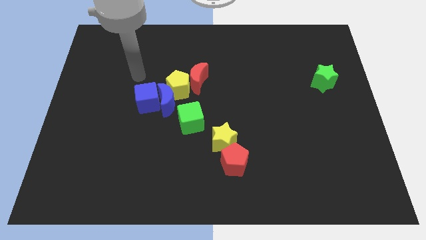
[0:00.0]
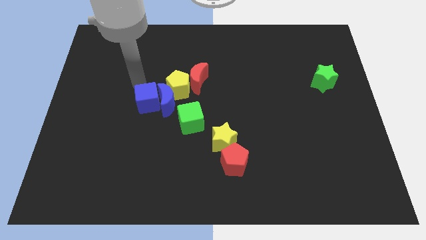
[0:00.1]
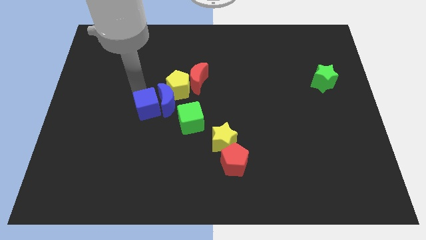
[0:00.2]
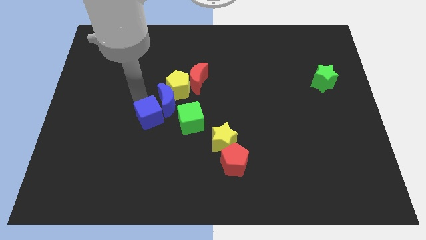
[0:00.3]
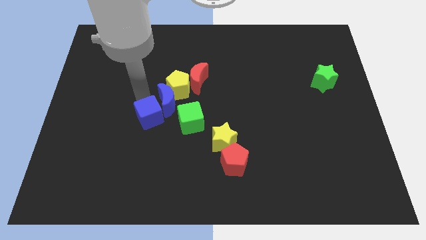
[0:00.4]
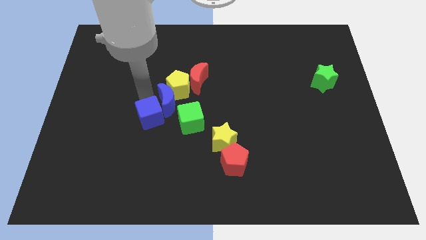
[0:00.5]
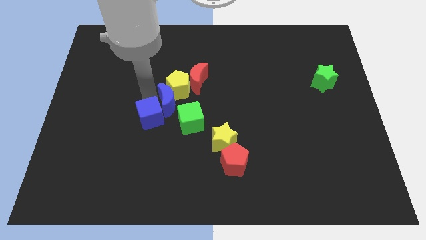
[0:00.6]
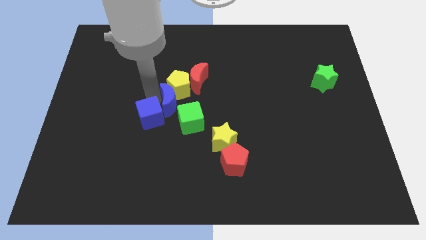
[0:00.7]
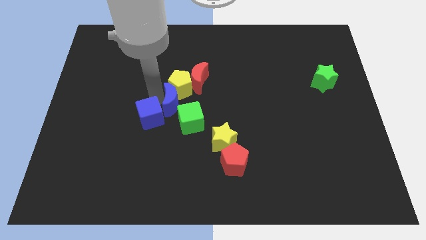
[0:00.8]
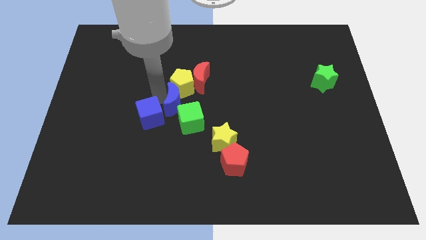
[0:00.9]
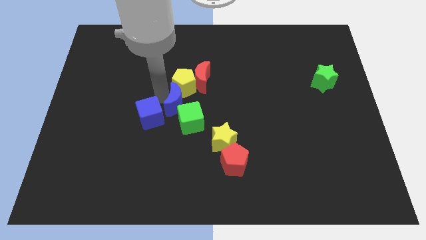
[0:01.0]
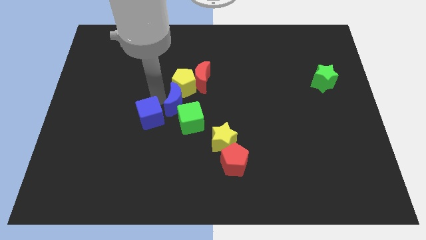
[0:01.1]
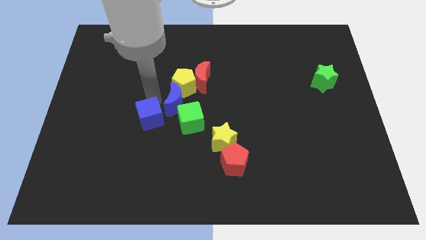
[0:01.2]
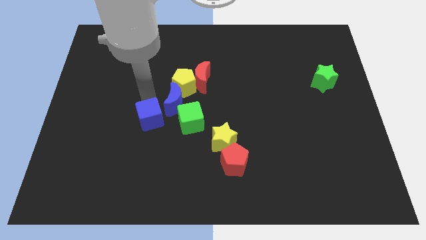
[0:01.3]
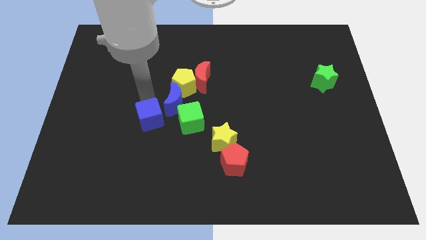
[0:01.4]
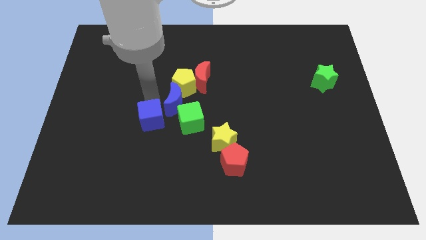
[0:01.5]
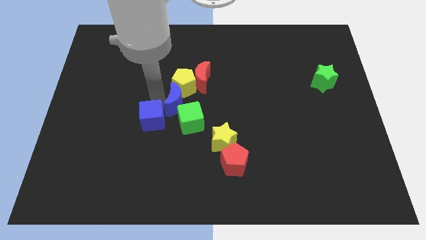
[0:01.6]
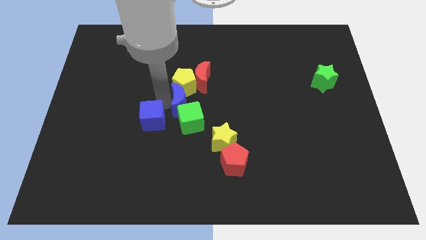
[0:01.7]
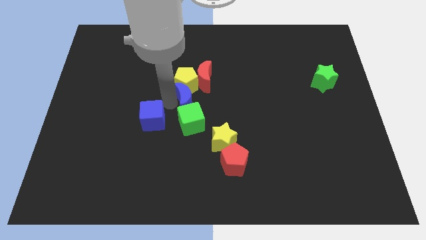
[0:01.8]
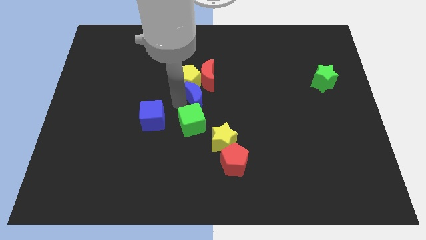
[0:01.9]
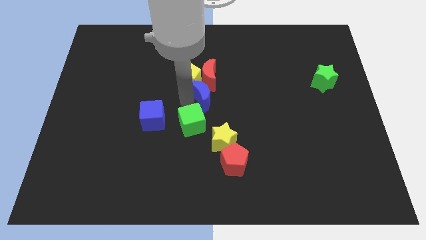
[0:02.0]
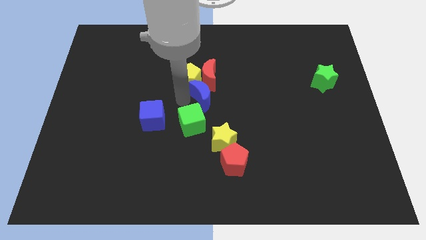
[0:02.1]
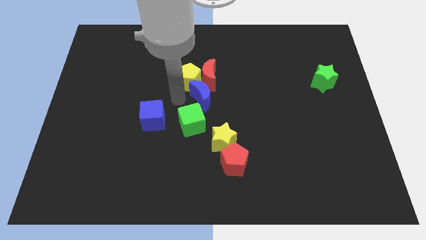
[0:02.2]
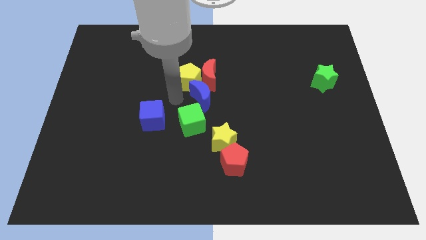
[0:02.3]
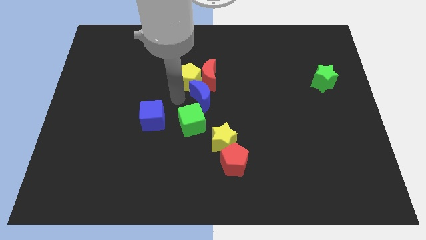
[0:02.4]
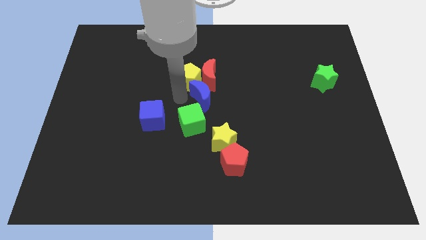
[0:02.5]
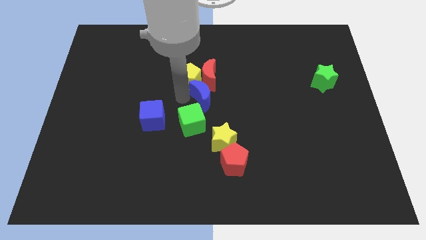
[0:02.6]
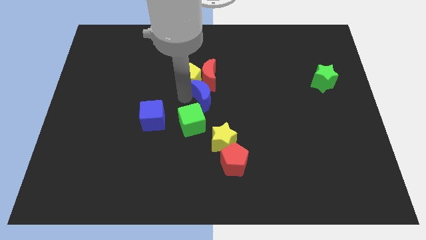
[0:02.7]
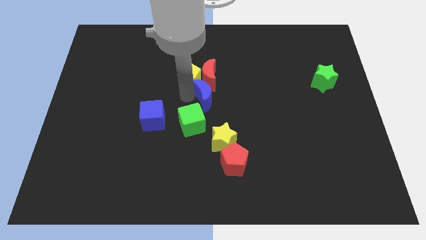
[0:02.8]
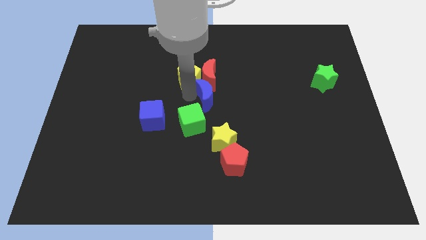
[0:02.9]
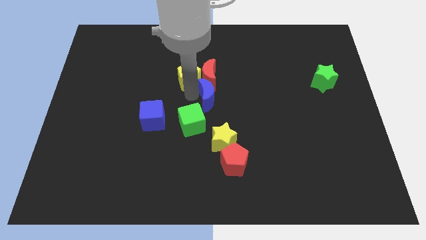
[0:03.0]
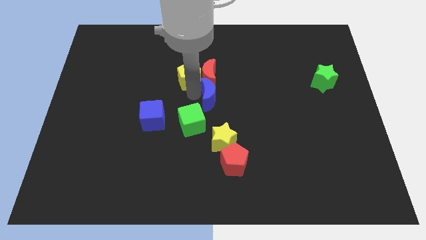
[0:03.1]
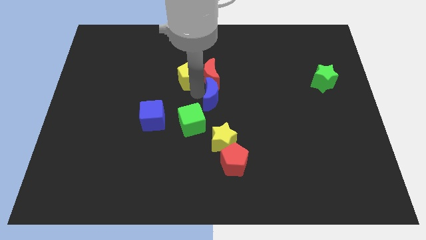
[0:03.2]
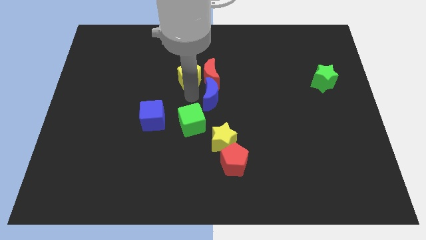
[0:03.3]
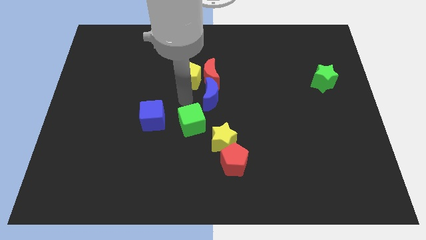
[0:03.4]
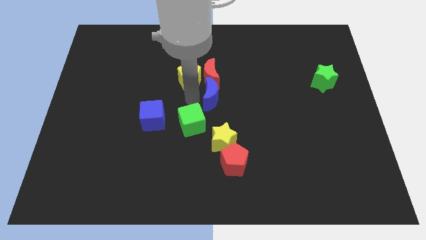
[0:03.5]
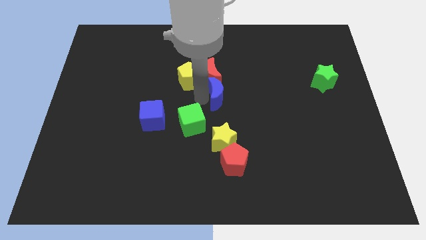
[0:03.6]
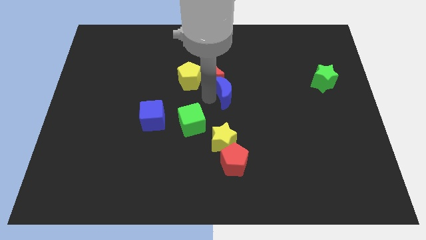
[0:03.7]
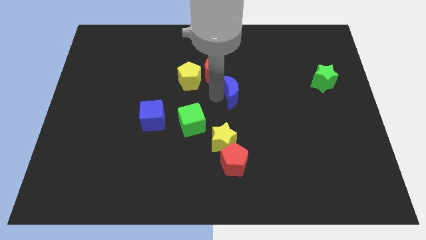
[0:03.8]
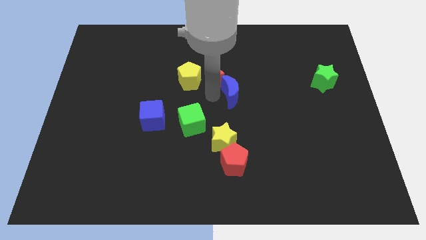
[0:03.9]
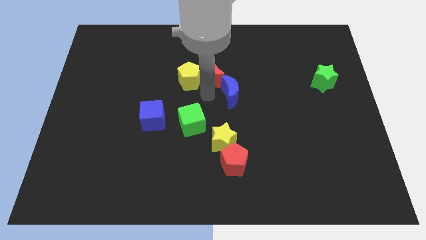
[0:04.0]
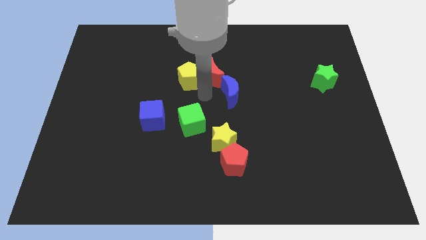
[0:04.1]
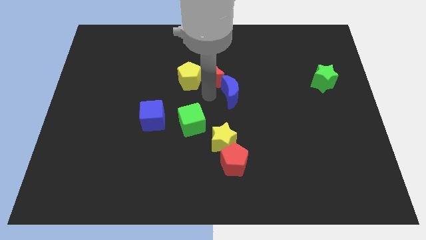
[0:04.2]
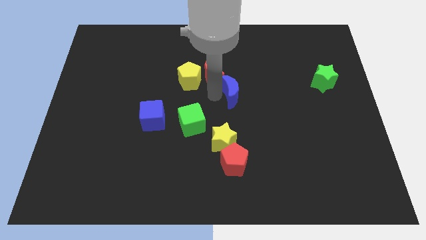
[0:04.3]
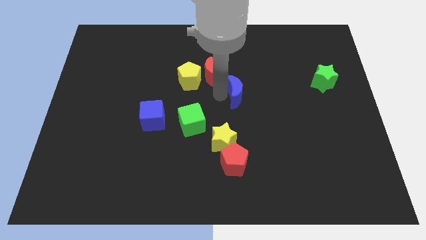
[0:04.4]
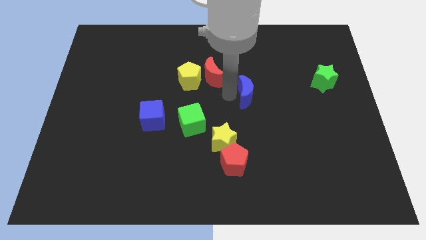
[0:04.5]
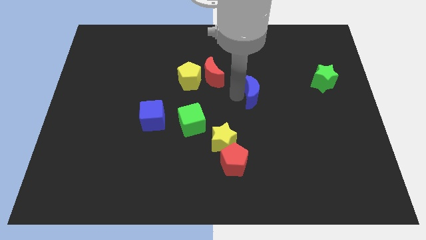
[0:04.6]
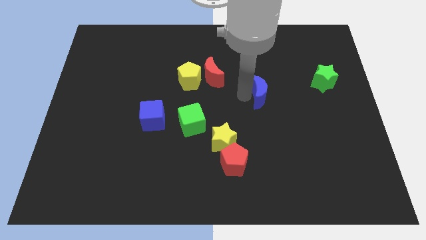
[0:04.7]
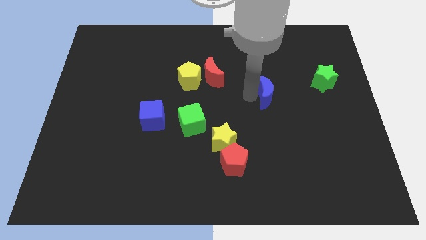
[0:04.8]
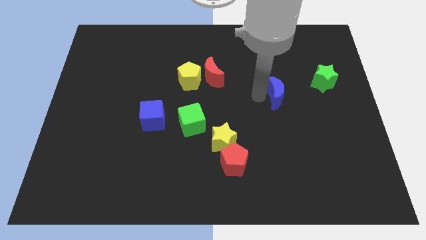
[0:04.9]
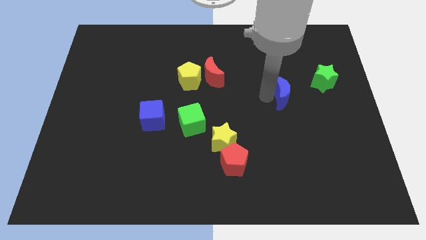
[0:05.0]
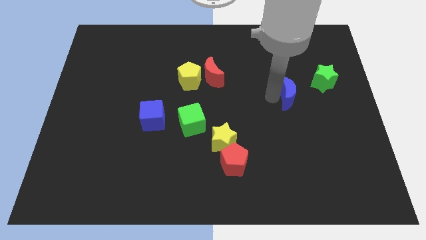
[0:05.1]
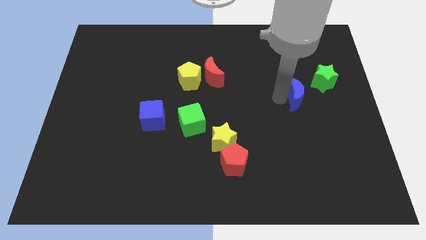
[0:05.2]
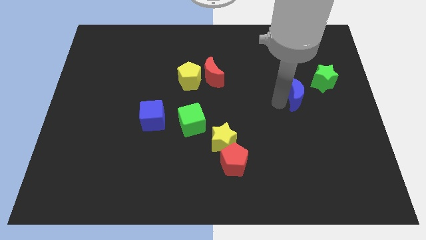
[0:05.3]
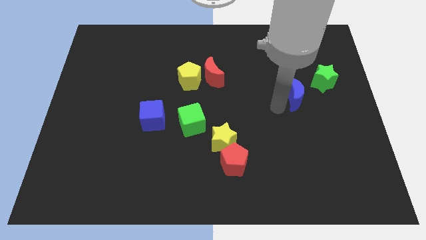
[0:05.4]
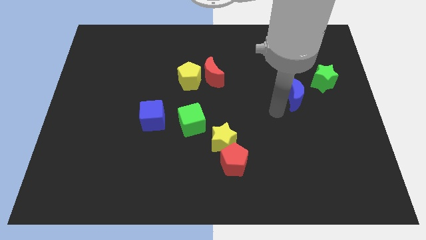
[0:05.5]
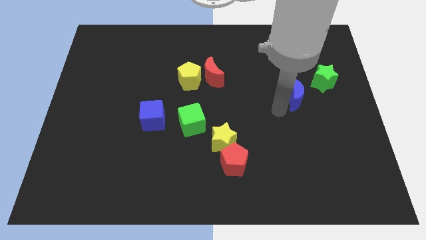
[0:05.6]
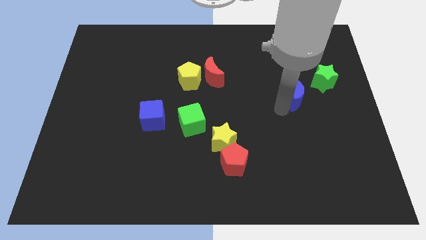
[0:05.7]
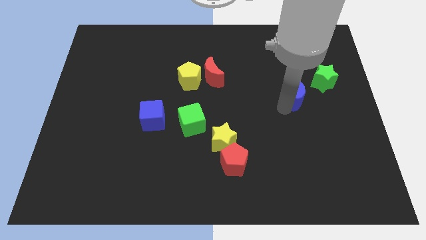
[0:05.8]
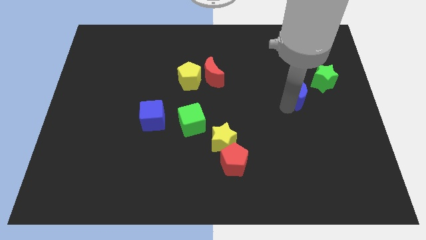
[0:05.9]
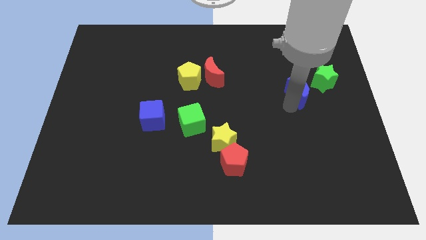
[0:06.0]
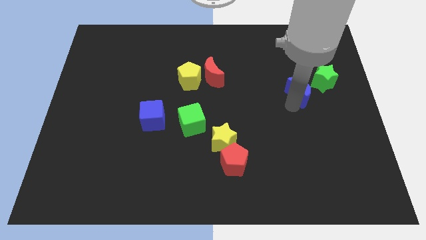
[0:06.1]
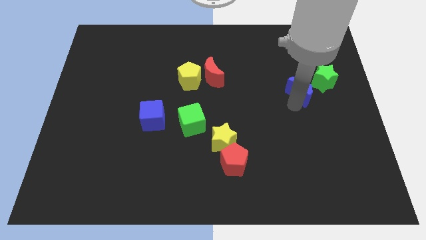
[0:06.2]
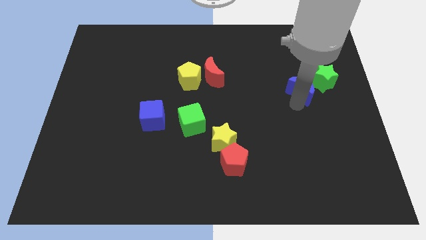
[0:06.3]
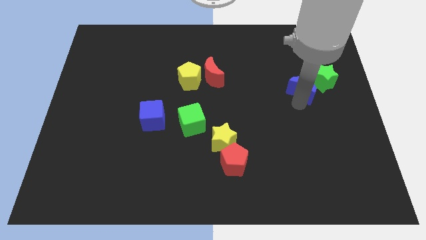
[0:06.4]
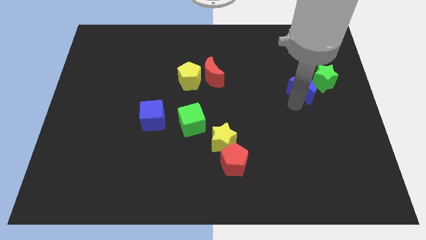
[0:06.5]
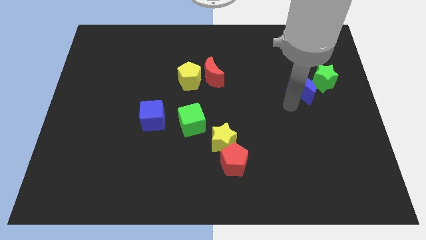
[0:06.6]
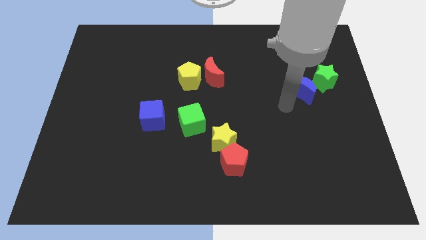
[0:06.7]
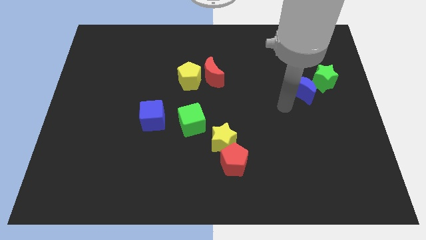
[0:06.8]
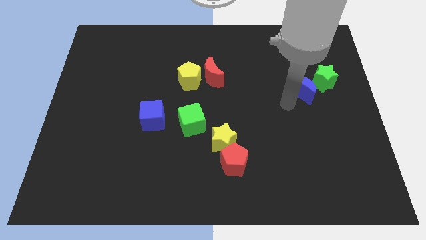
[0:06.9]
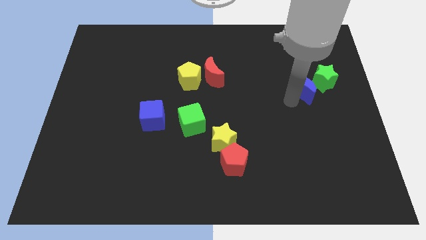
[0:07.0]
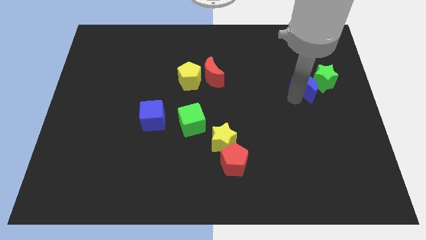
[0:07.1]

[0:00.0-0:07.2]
push the blue moon to the green star
